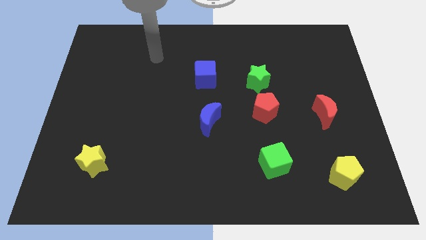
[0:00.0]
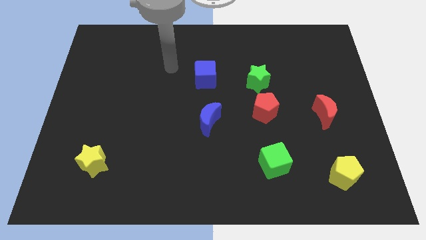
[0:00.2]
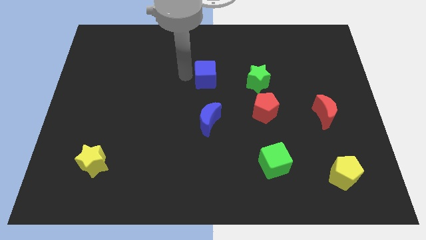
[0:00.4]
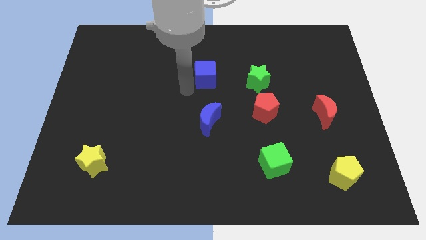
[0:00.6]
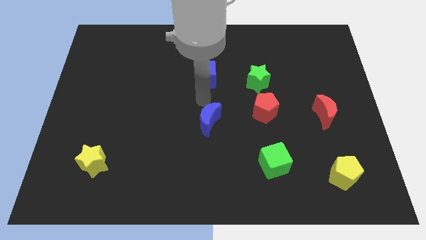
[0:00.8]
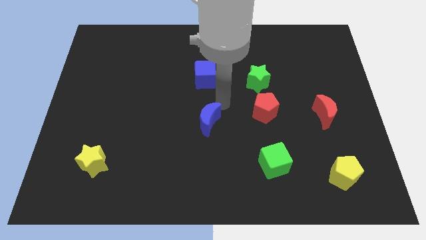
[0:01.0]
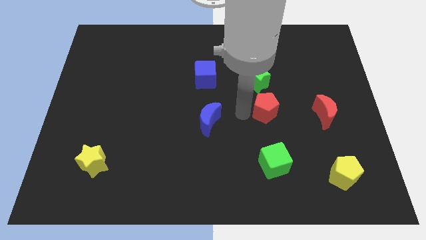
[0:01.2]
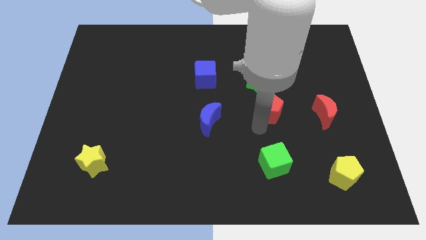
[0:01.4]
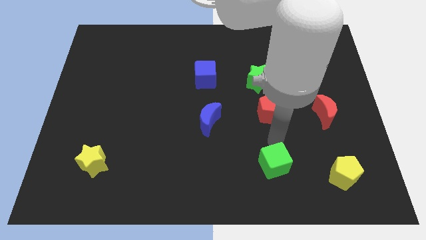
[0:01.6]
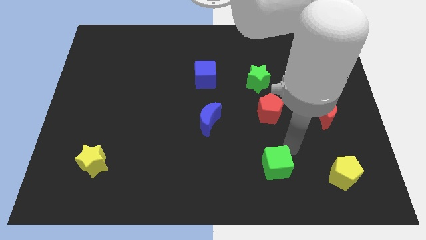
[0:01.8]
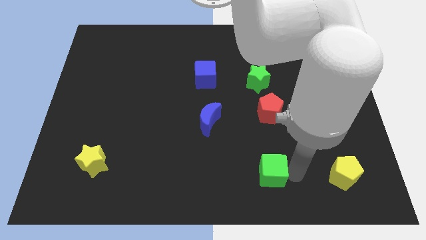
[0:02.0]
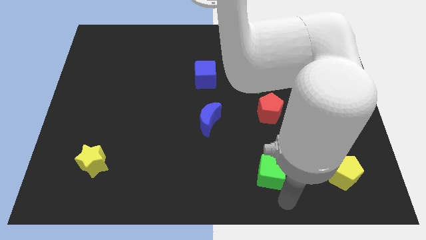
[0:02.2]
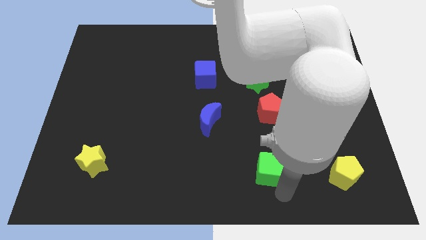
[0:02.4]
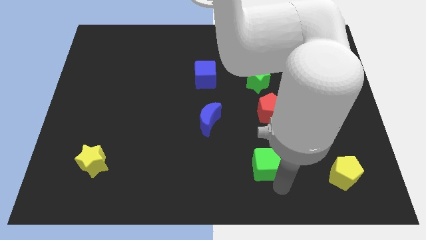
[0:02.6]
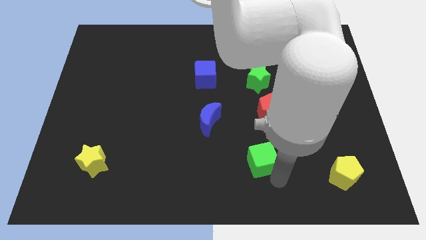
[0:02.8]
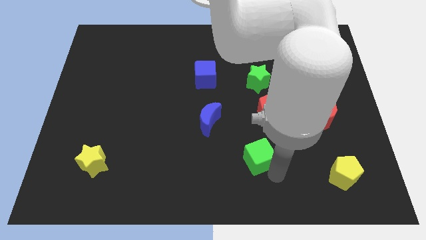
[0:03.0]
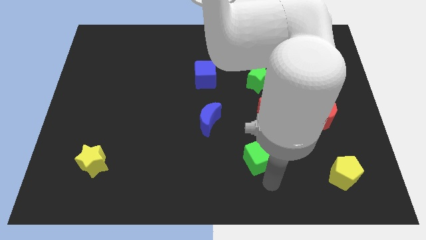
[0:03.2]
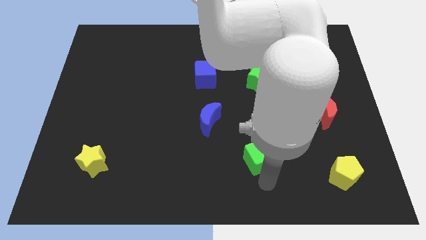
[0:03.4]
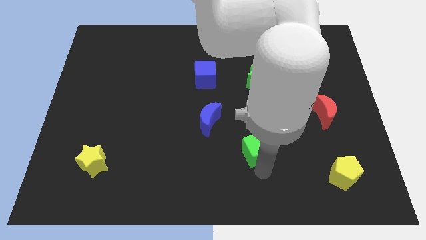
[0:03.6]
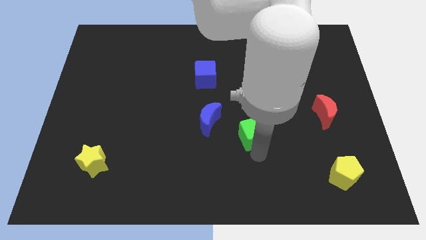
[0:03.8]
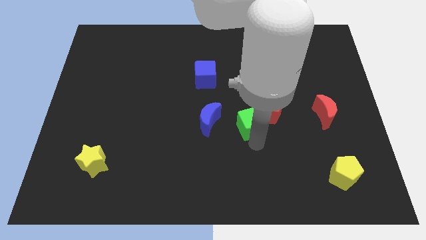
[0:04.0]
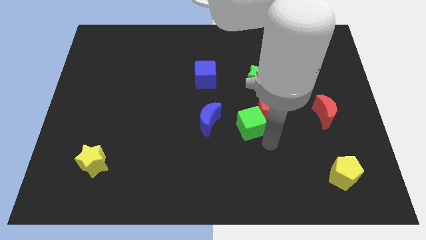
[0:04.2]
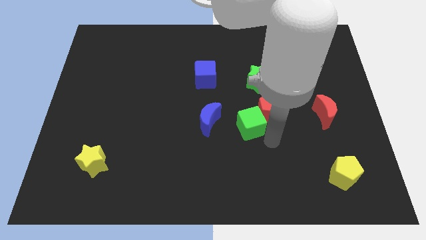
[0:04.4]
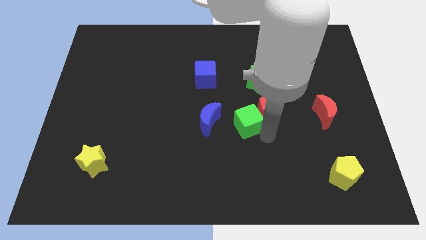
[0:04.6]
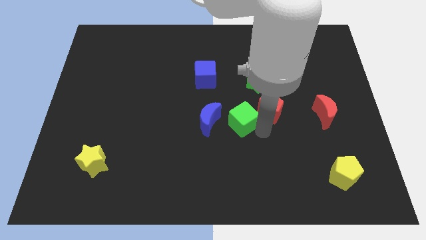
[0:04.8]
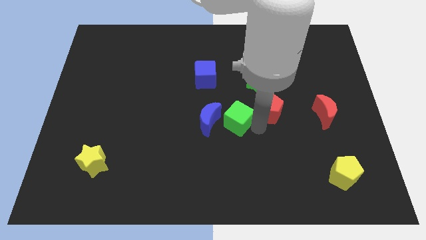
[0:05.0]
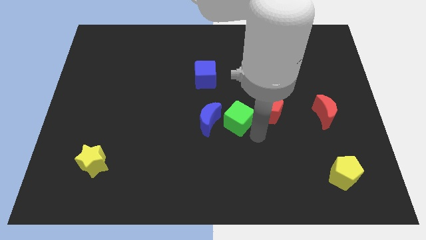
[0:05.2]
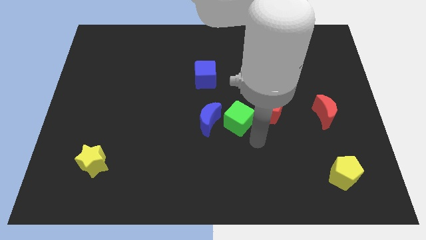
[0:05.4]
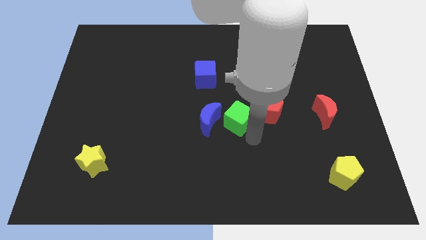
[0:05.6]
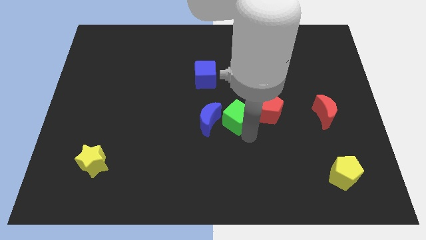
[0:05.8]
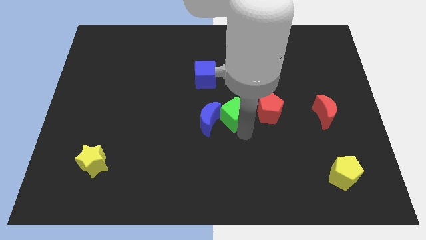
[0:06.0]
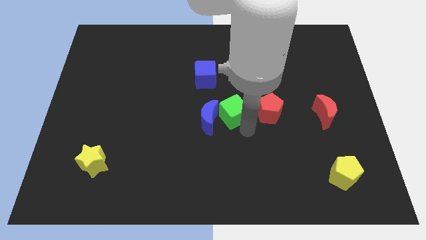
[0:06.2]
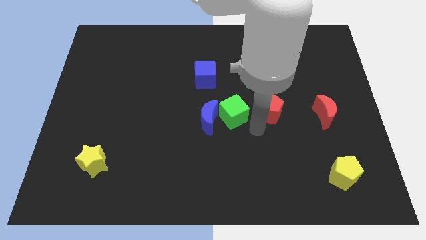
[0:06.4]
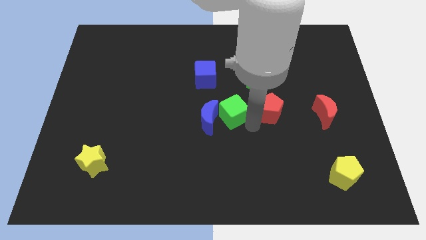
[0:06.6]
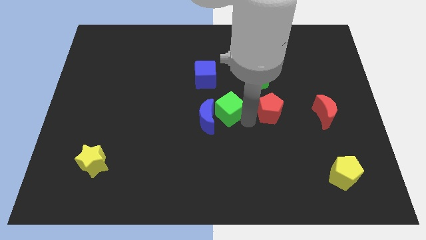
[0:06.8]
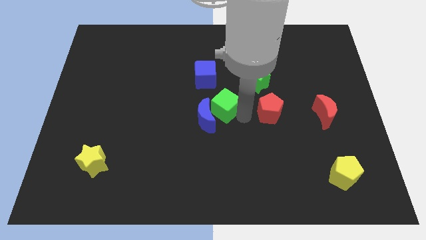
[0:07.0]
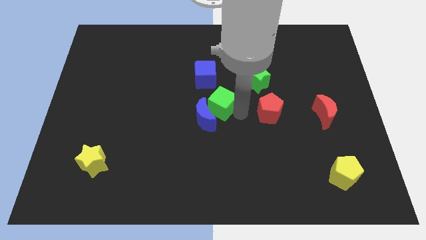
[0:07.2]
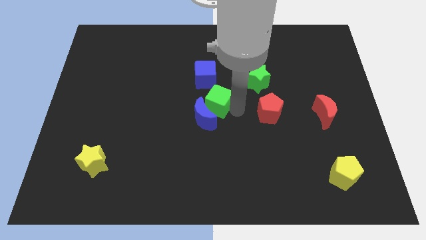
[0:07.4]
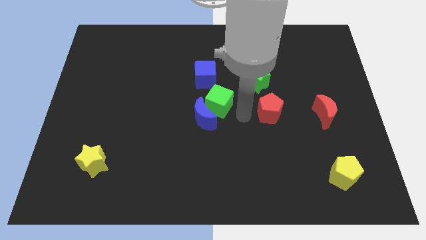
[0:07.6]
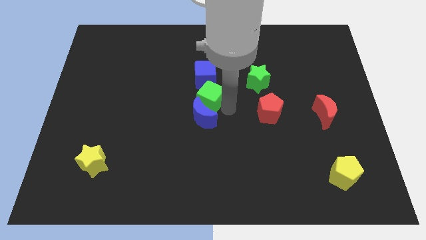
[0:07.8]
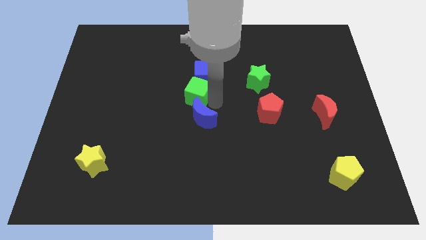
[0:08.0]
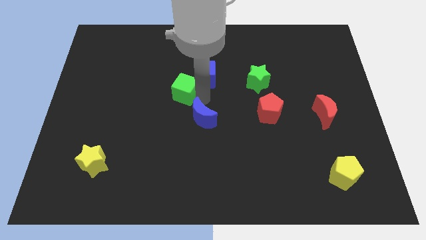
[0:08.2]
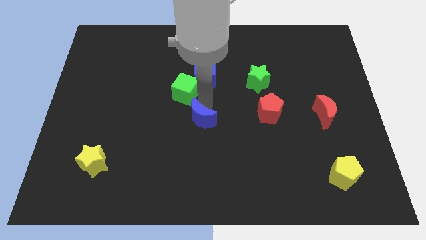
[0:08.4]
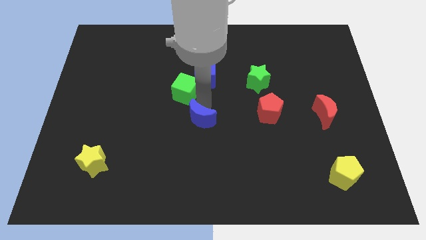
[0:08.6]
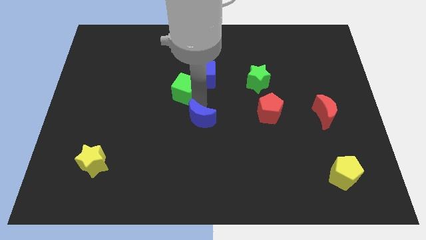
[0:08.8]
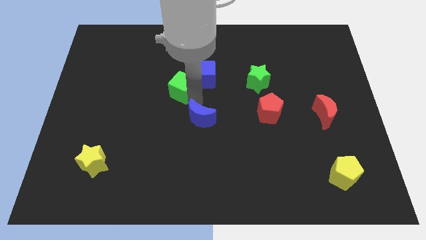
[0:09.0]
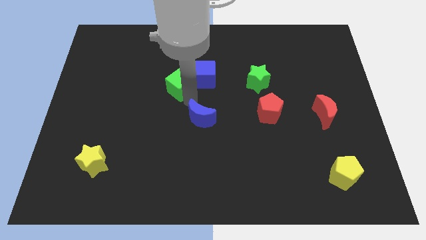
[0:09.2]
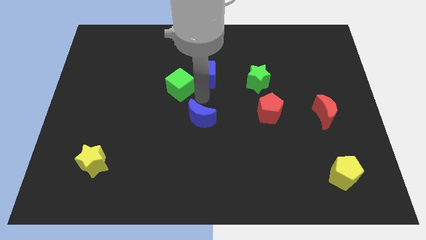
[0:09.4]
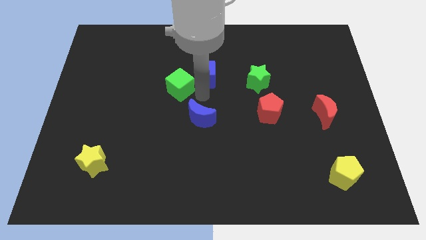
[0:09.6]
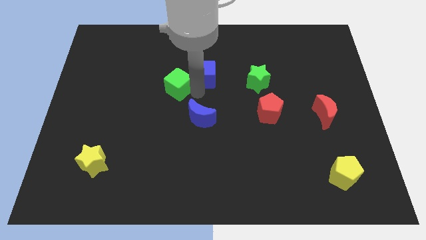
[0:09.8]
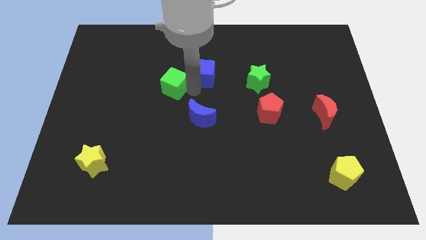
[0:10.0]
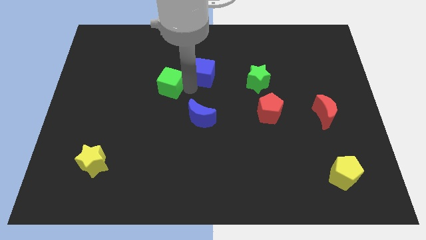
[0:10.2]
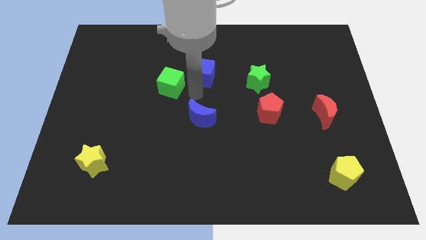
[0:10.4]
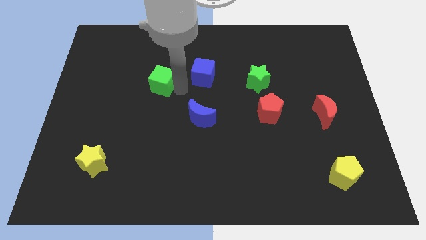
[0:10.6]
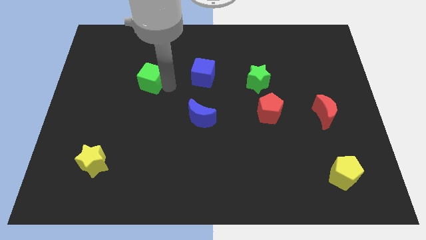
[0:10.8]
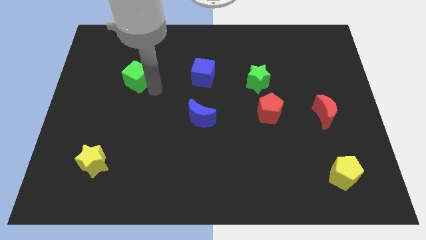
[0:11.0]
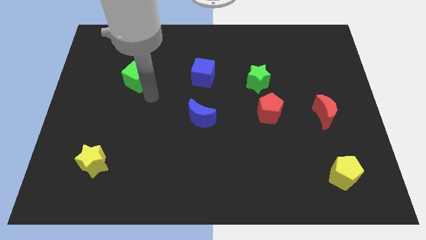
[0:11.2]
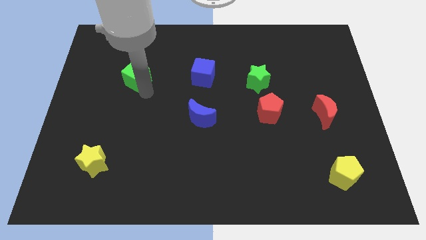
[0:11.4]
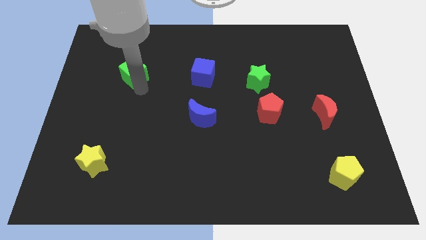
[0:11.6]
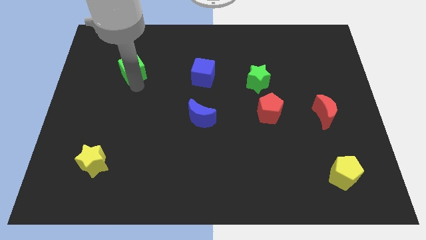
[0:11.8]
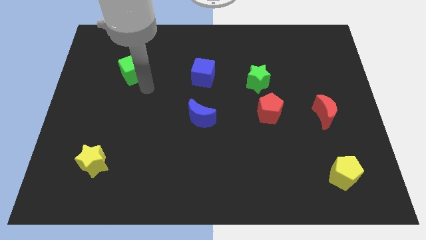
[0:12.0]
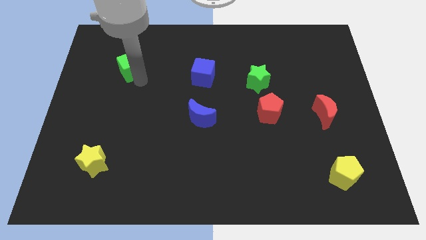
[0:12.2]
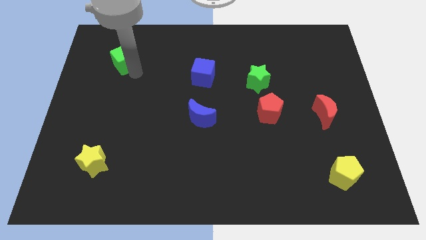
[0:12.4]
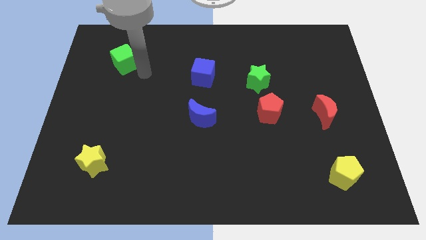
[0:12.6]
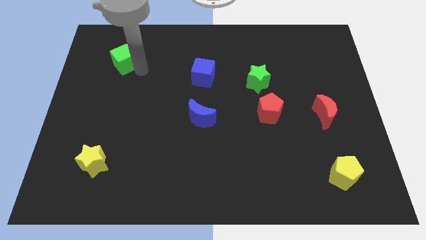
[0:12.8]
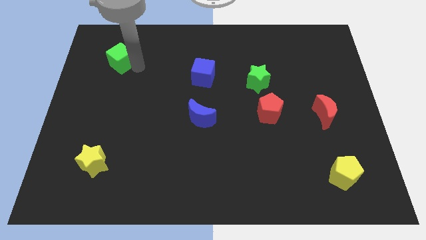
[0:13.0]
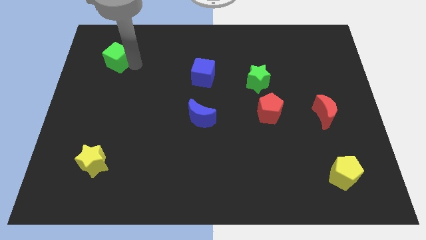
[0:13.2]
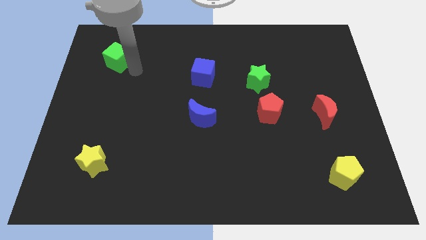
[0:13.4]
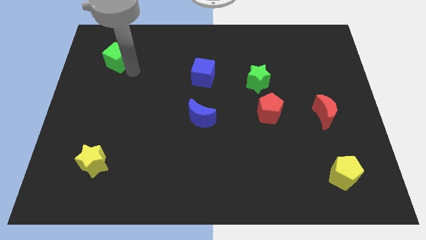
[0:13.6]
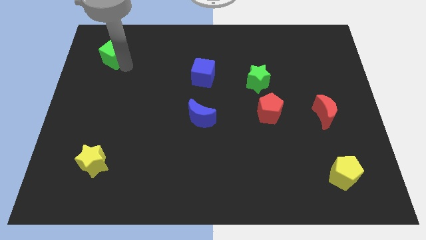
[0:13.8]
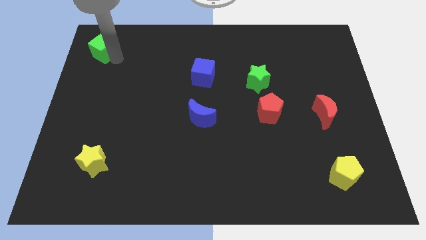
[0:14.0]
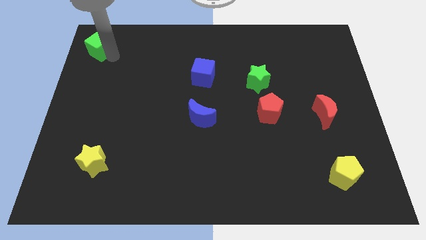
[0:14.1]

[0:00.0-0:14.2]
slide the green cube to the top left
